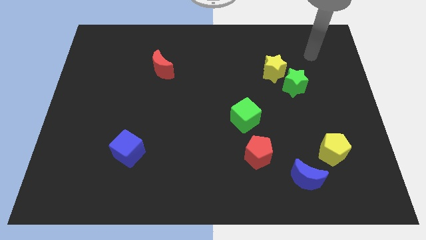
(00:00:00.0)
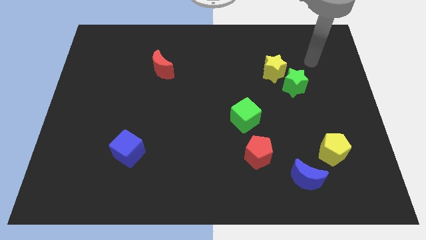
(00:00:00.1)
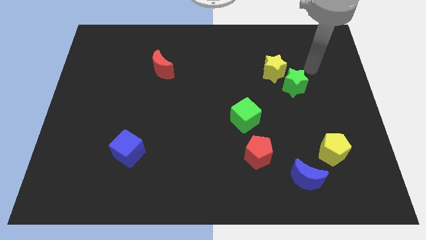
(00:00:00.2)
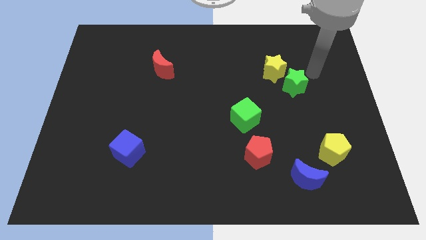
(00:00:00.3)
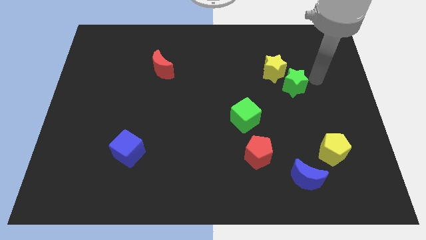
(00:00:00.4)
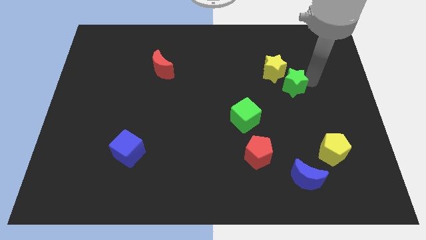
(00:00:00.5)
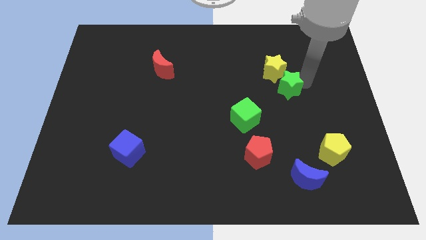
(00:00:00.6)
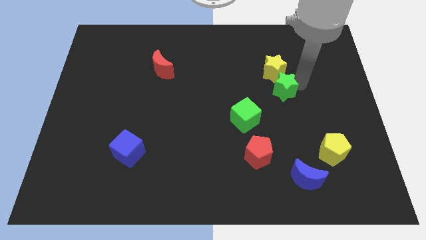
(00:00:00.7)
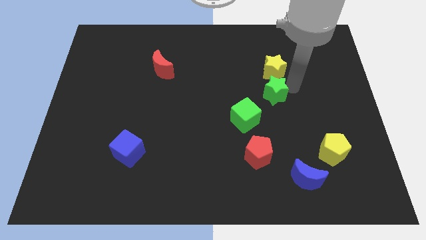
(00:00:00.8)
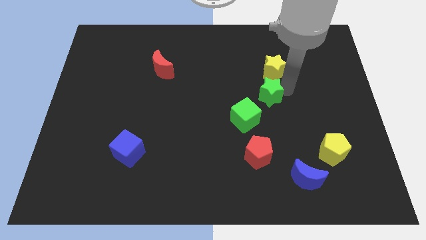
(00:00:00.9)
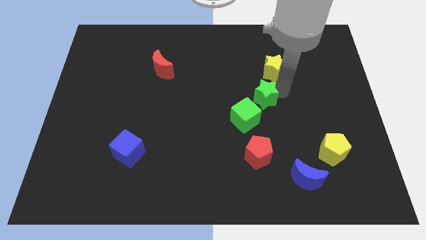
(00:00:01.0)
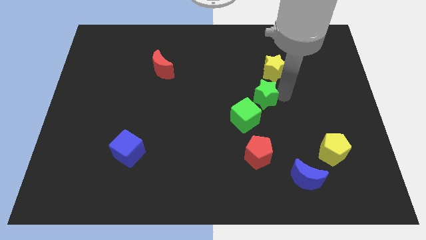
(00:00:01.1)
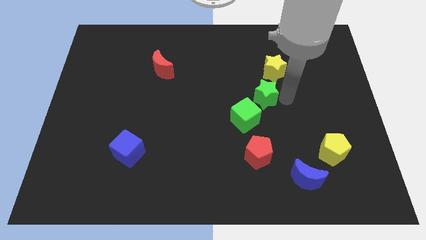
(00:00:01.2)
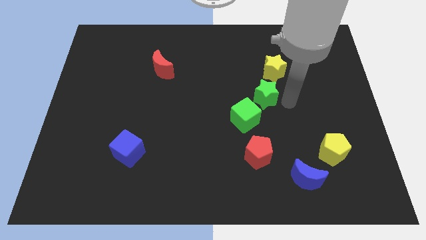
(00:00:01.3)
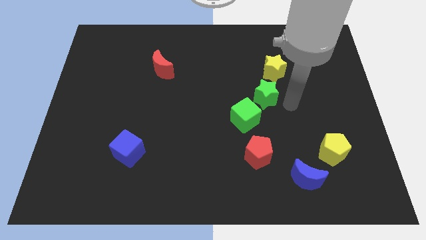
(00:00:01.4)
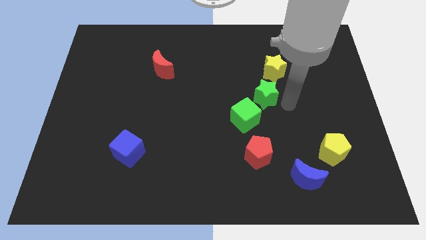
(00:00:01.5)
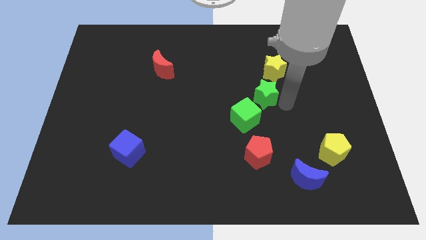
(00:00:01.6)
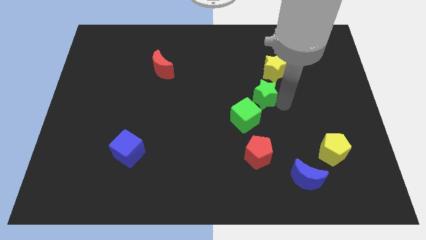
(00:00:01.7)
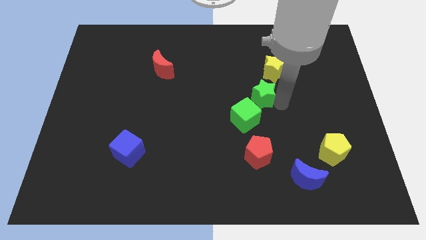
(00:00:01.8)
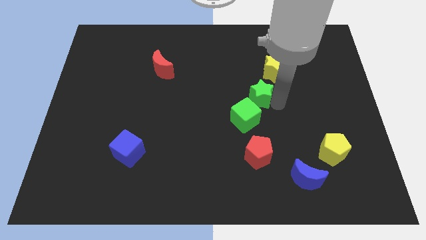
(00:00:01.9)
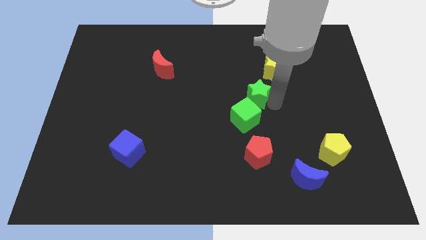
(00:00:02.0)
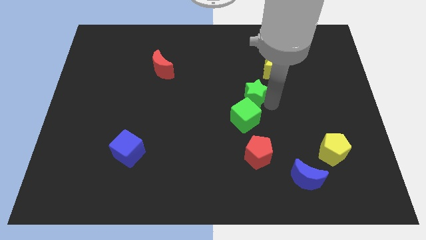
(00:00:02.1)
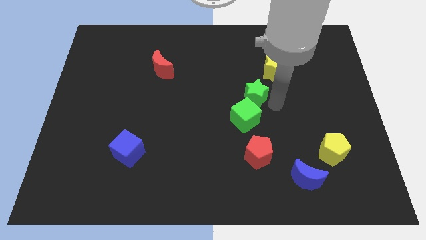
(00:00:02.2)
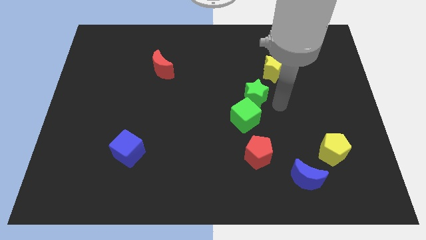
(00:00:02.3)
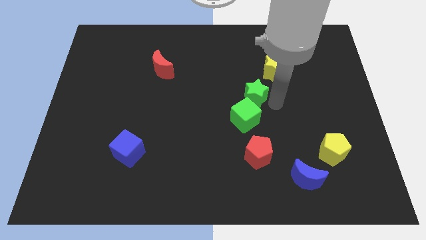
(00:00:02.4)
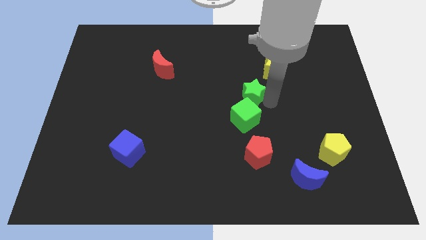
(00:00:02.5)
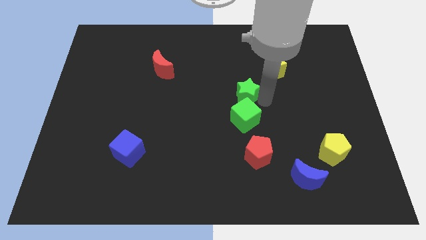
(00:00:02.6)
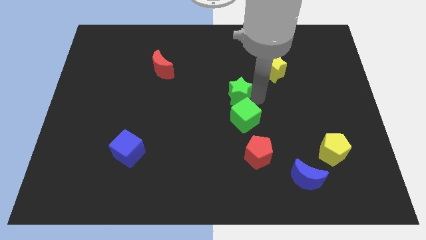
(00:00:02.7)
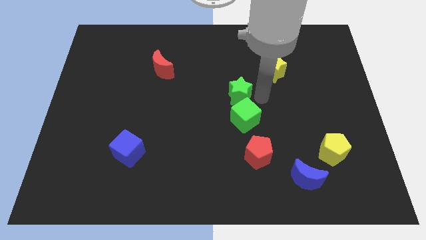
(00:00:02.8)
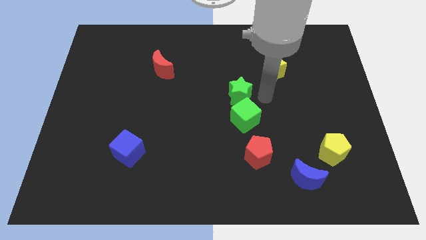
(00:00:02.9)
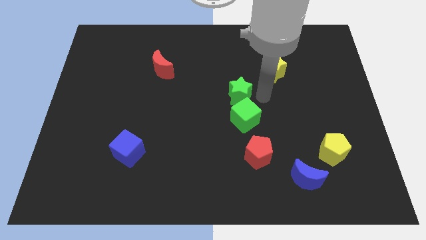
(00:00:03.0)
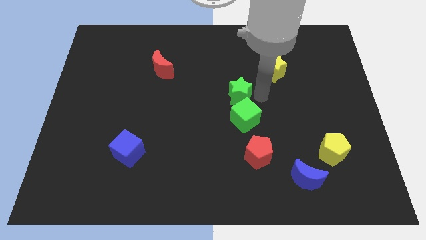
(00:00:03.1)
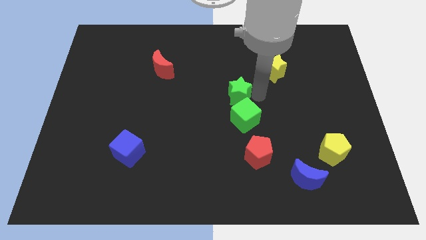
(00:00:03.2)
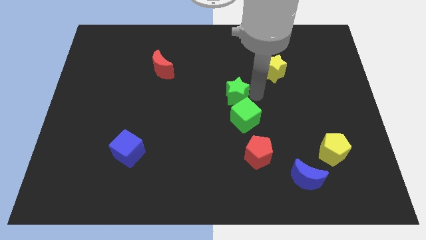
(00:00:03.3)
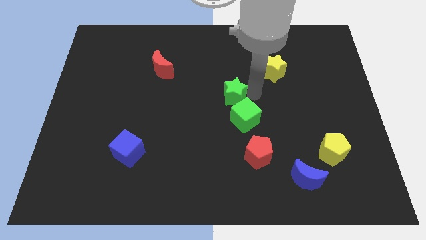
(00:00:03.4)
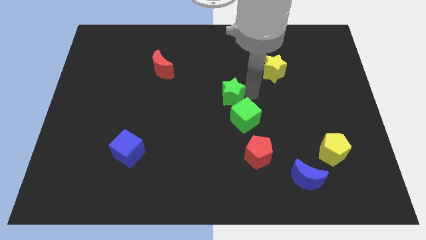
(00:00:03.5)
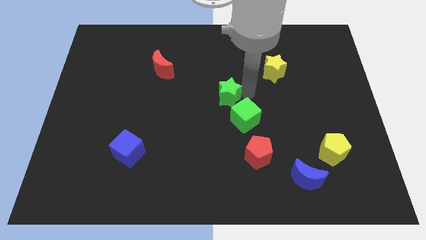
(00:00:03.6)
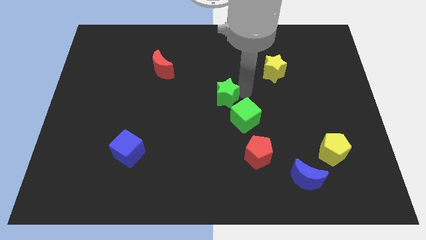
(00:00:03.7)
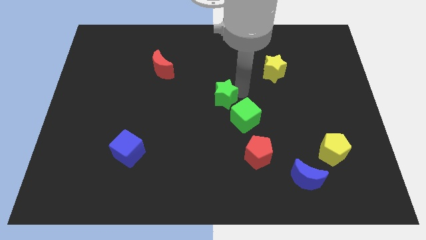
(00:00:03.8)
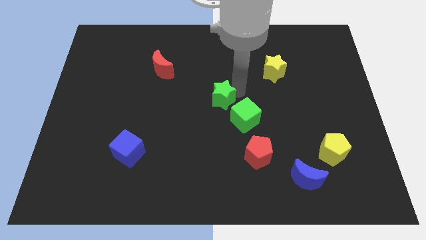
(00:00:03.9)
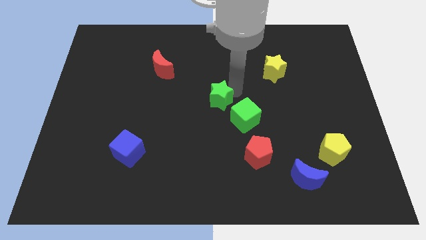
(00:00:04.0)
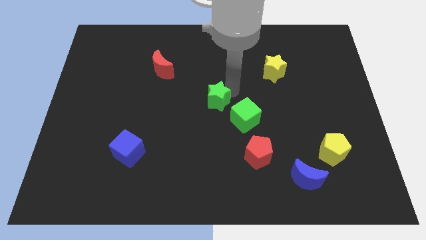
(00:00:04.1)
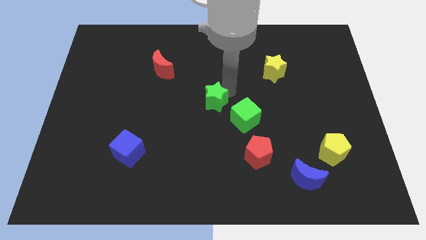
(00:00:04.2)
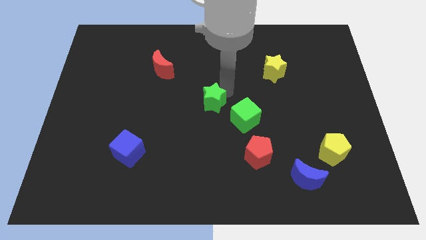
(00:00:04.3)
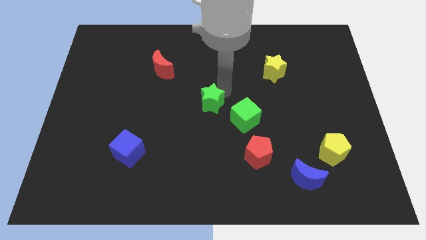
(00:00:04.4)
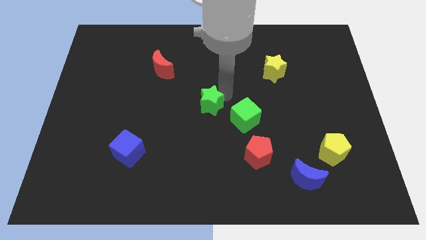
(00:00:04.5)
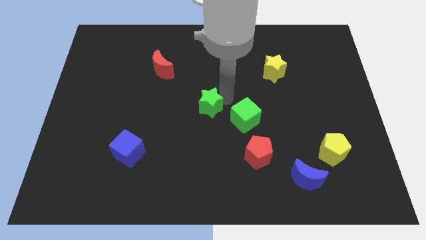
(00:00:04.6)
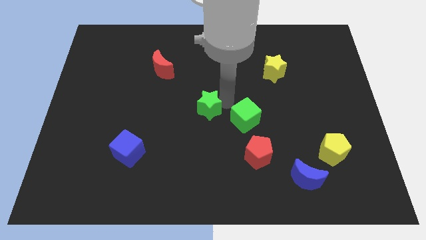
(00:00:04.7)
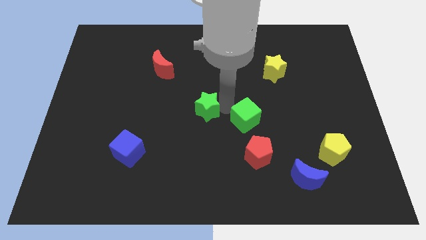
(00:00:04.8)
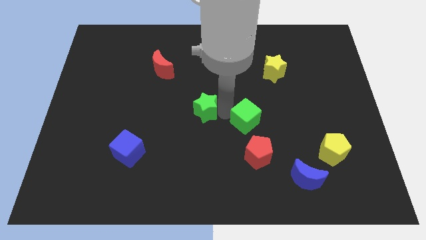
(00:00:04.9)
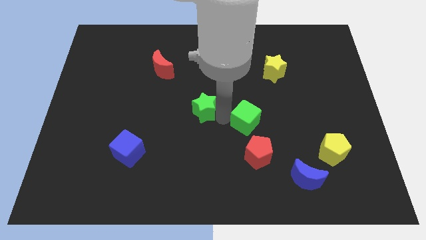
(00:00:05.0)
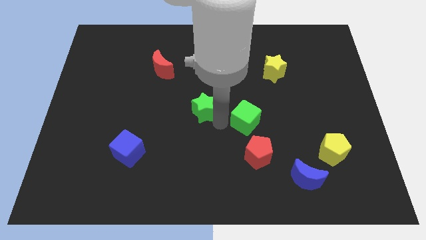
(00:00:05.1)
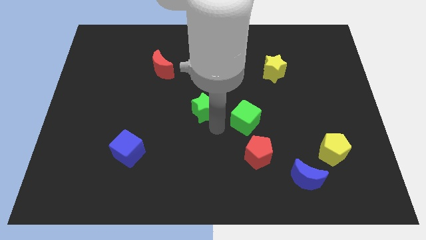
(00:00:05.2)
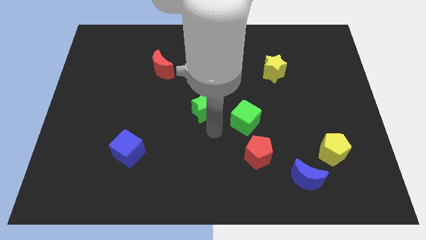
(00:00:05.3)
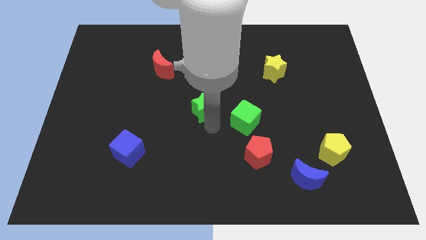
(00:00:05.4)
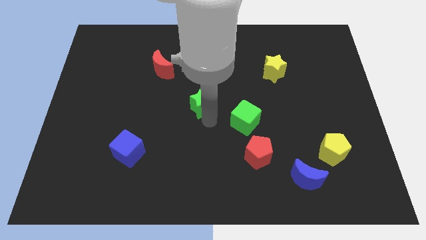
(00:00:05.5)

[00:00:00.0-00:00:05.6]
slide the green star left

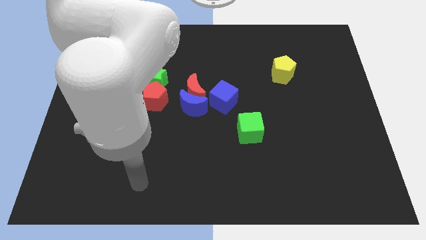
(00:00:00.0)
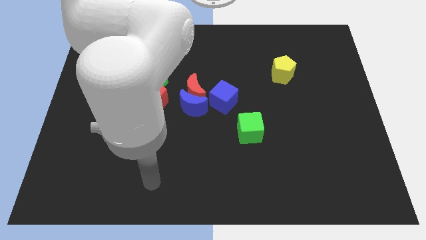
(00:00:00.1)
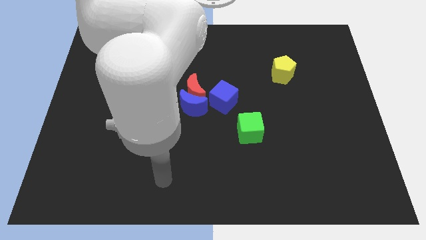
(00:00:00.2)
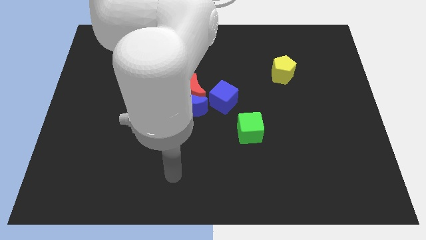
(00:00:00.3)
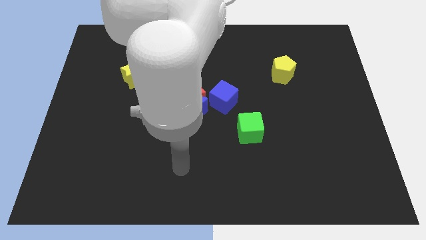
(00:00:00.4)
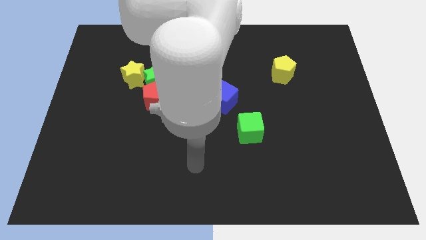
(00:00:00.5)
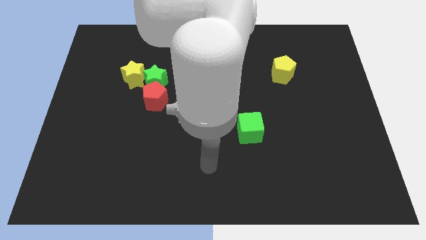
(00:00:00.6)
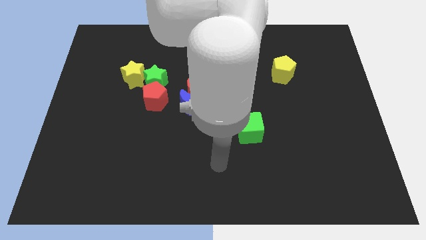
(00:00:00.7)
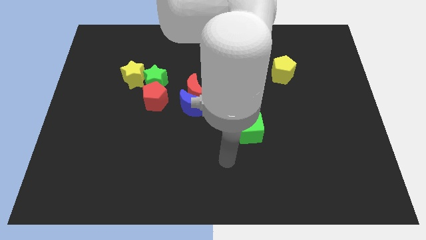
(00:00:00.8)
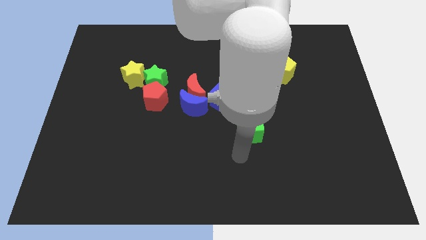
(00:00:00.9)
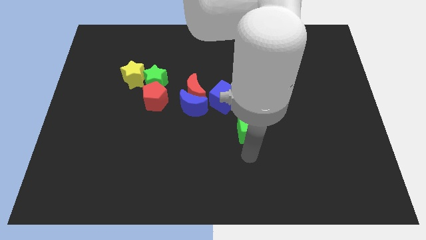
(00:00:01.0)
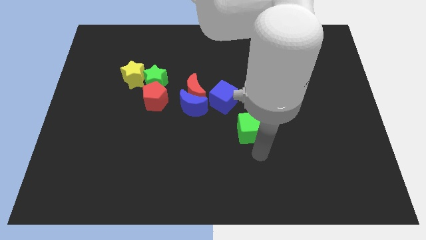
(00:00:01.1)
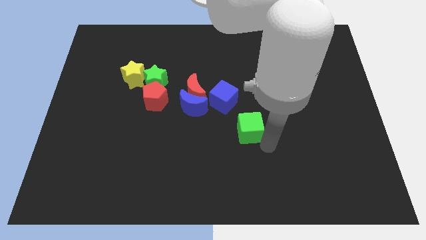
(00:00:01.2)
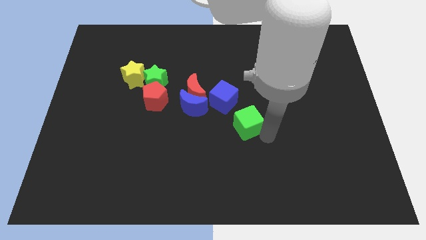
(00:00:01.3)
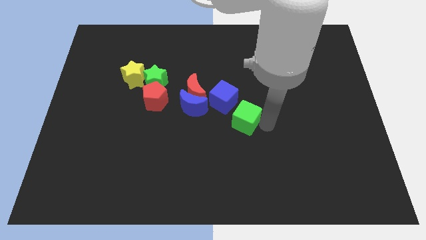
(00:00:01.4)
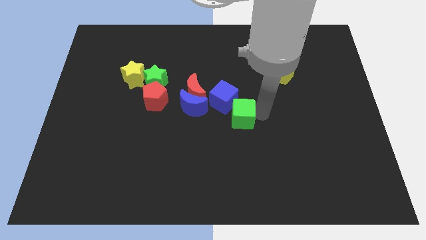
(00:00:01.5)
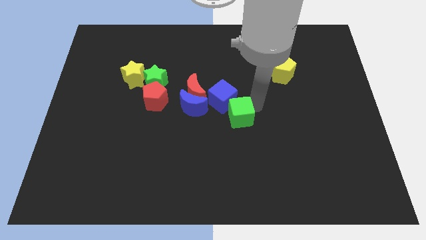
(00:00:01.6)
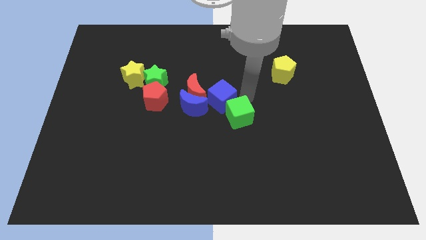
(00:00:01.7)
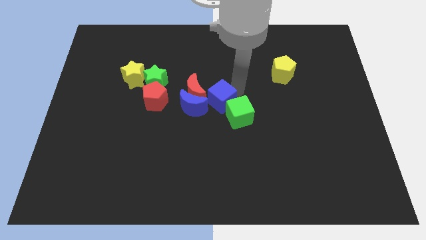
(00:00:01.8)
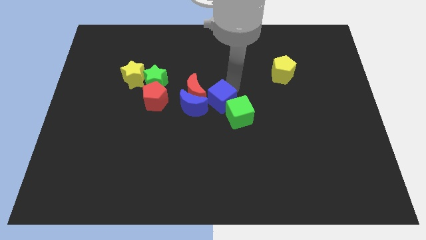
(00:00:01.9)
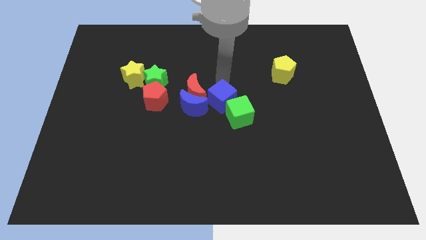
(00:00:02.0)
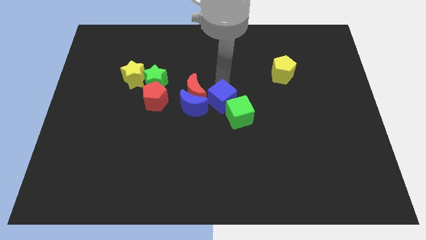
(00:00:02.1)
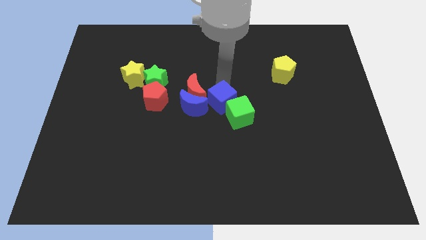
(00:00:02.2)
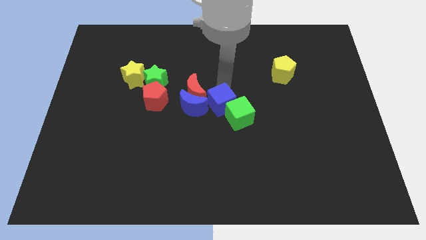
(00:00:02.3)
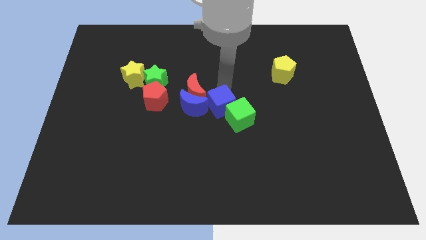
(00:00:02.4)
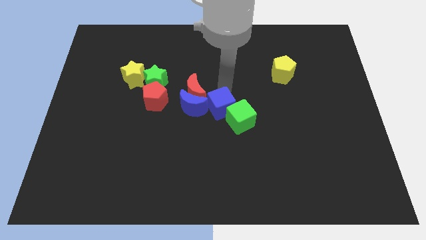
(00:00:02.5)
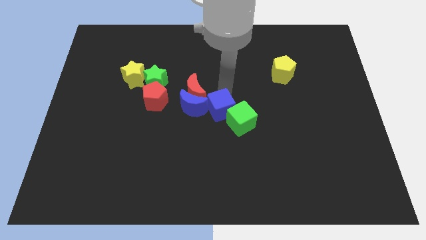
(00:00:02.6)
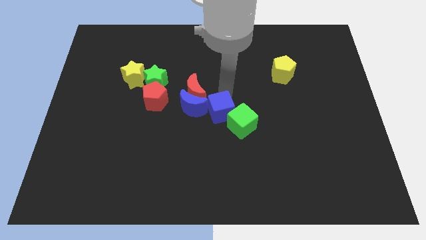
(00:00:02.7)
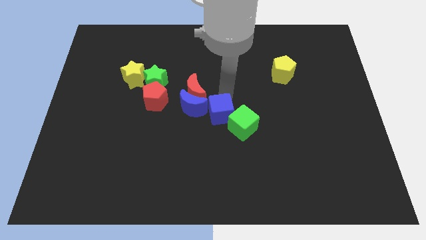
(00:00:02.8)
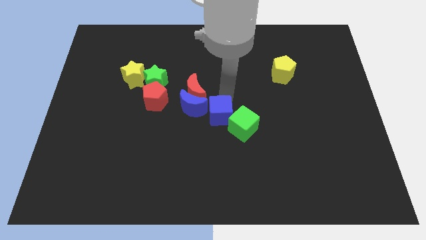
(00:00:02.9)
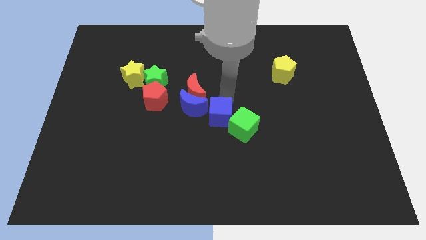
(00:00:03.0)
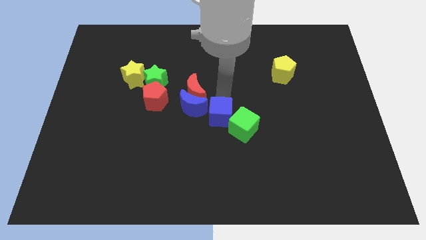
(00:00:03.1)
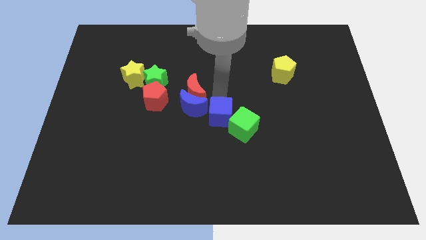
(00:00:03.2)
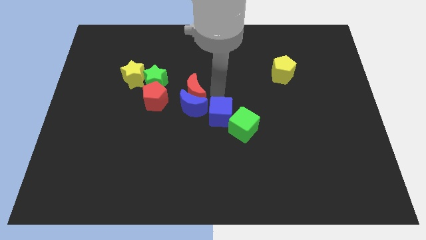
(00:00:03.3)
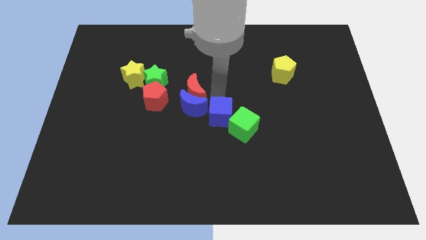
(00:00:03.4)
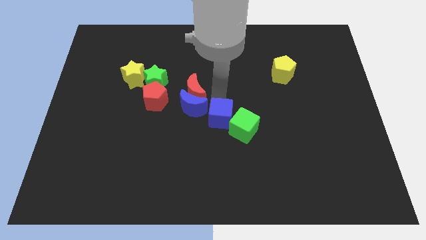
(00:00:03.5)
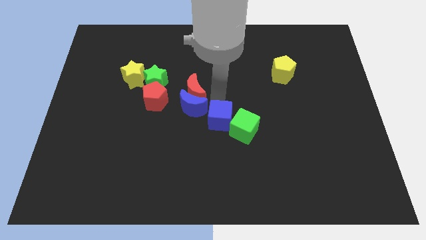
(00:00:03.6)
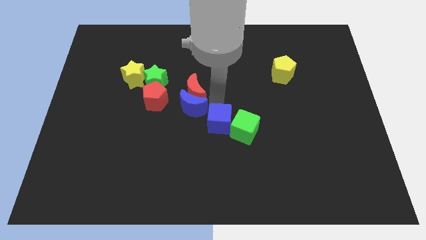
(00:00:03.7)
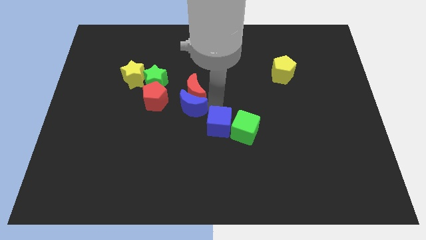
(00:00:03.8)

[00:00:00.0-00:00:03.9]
slightly push the blue cube downwards
